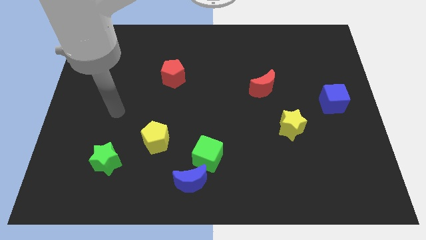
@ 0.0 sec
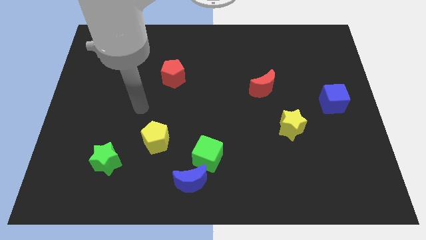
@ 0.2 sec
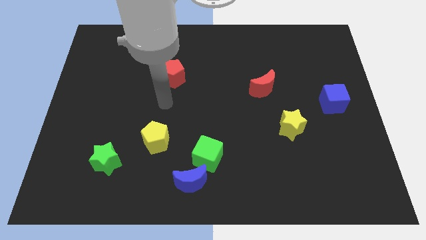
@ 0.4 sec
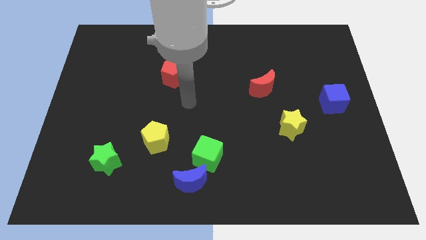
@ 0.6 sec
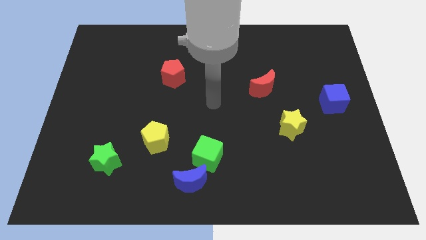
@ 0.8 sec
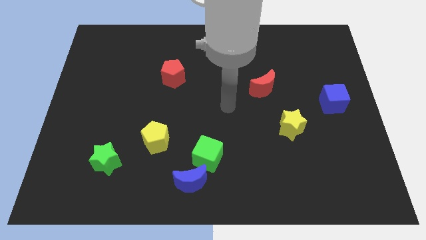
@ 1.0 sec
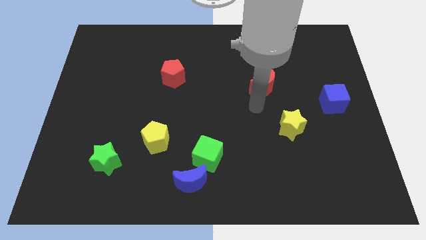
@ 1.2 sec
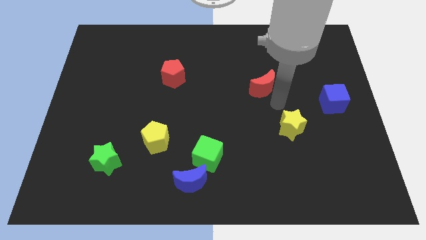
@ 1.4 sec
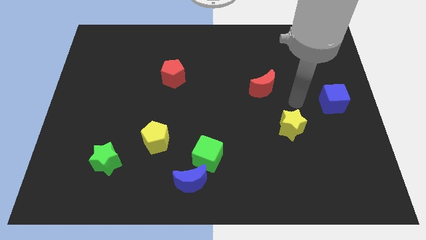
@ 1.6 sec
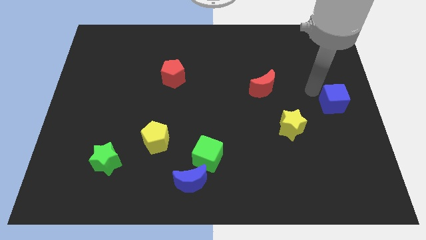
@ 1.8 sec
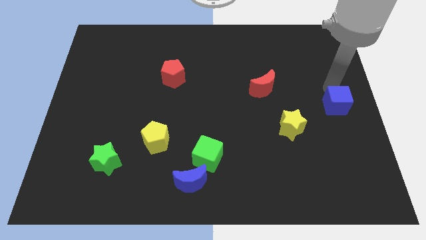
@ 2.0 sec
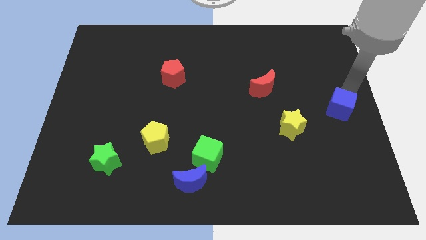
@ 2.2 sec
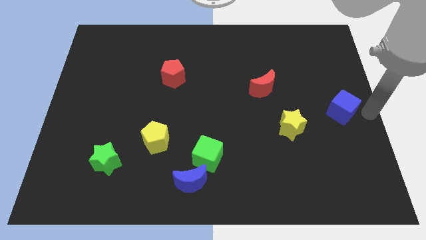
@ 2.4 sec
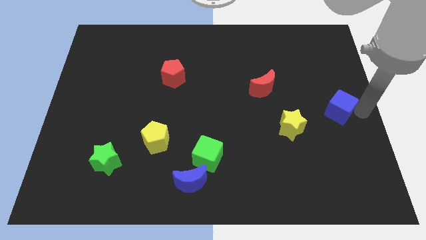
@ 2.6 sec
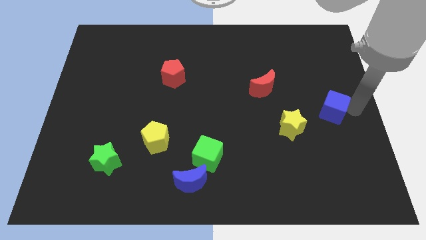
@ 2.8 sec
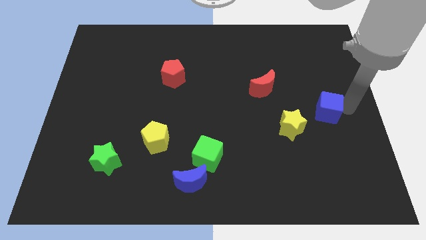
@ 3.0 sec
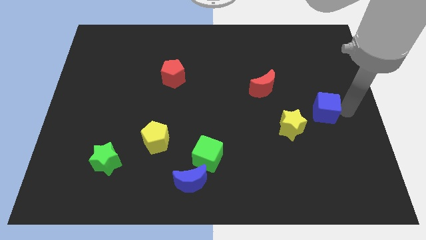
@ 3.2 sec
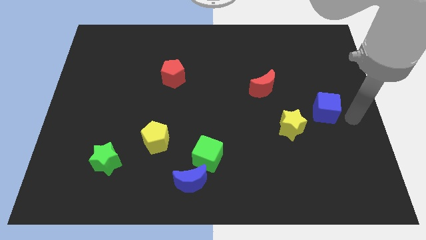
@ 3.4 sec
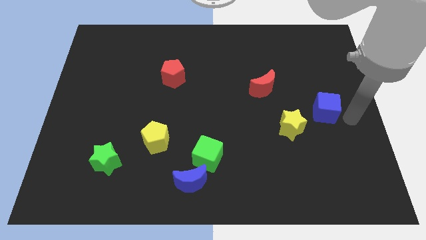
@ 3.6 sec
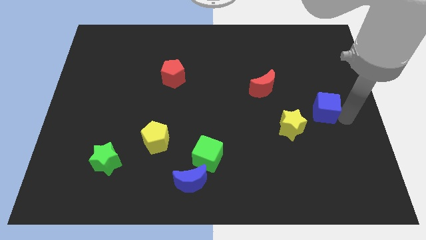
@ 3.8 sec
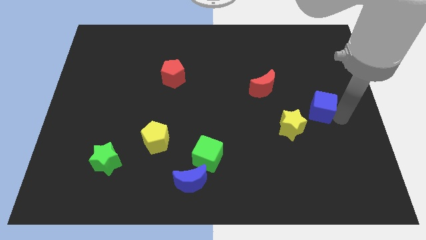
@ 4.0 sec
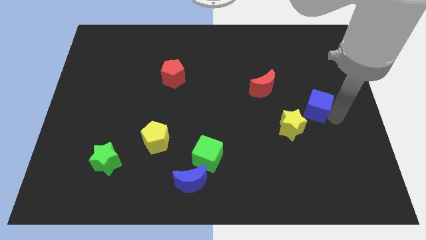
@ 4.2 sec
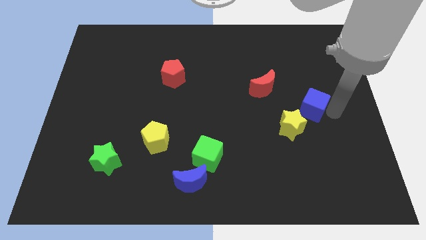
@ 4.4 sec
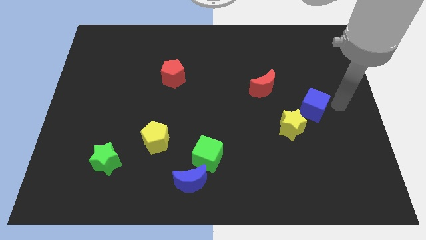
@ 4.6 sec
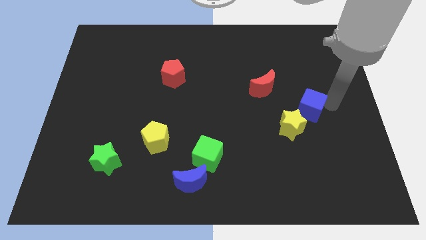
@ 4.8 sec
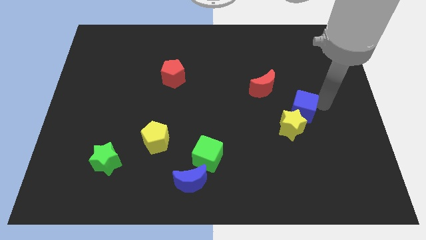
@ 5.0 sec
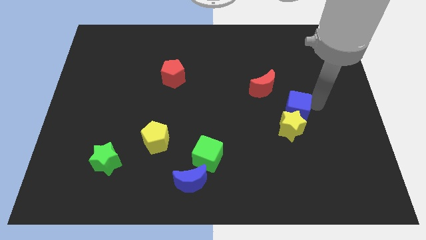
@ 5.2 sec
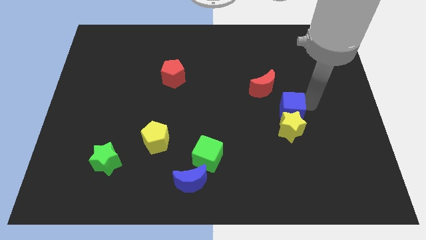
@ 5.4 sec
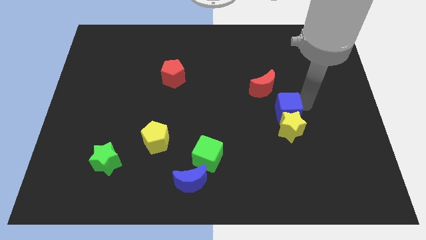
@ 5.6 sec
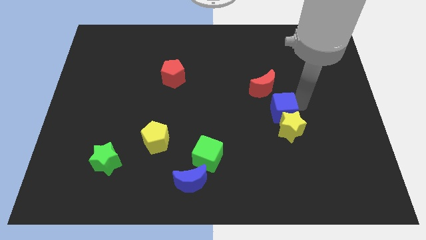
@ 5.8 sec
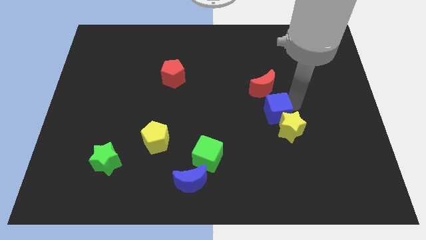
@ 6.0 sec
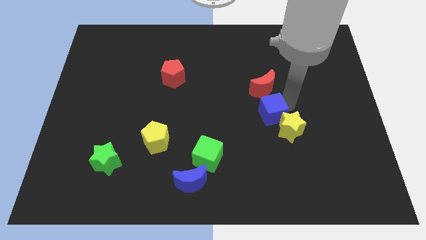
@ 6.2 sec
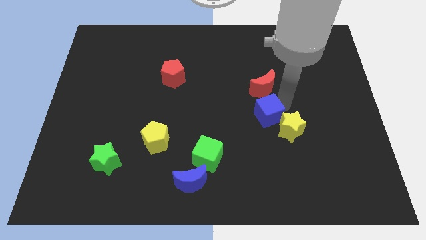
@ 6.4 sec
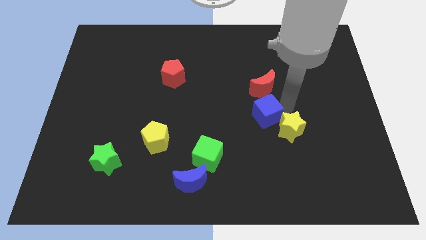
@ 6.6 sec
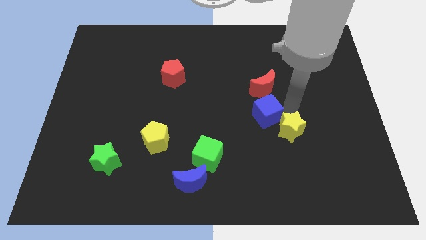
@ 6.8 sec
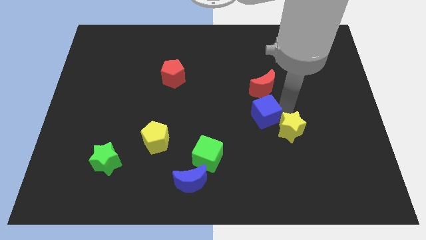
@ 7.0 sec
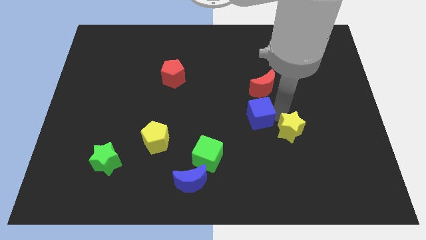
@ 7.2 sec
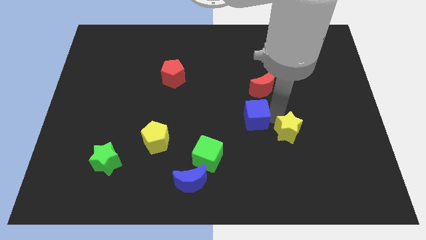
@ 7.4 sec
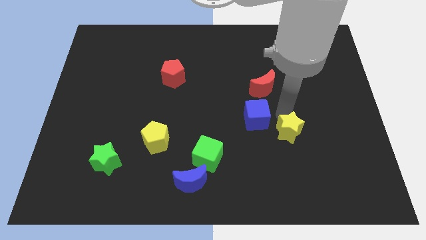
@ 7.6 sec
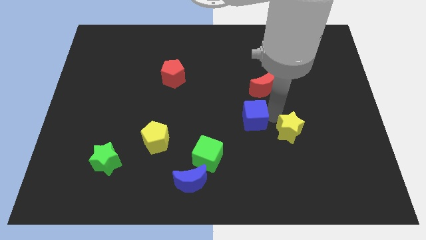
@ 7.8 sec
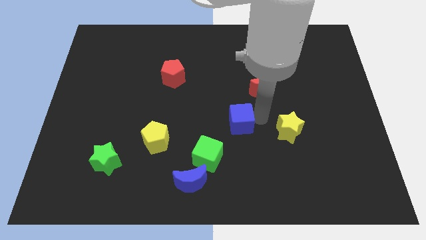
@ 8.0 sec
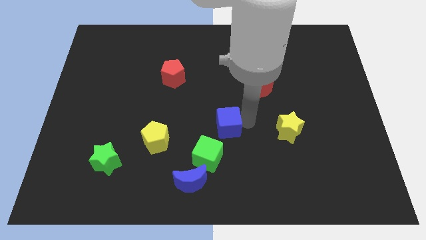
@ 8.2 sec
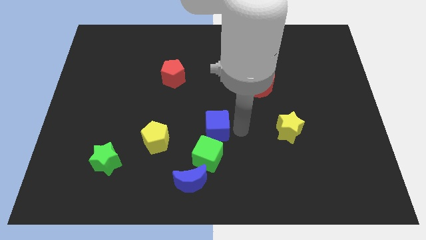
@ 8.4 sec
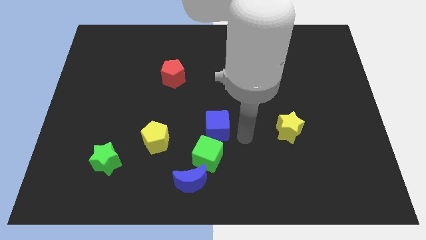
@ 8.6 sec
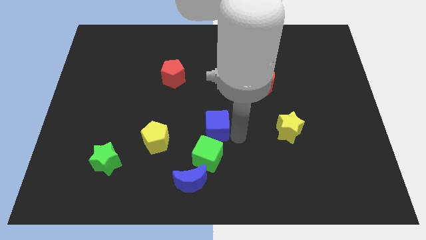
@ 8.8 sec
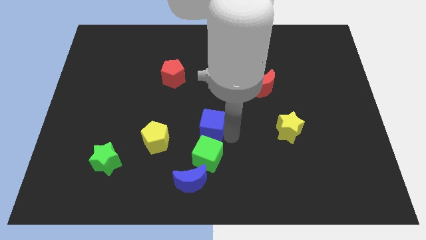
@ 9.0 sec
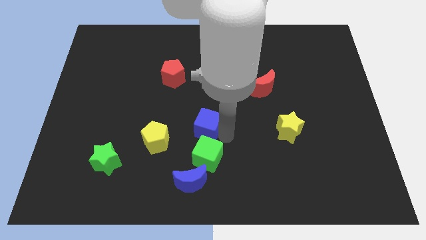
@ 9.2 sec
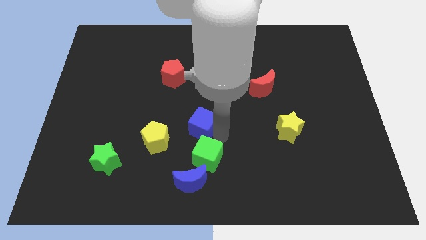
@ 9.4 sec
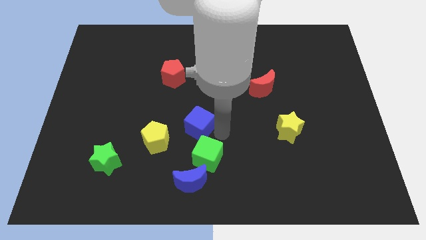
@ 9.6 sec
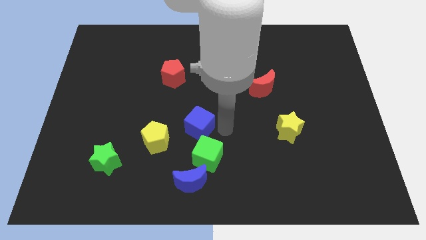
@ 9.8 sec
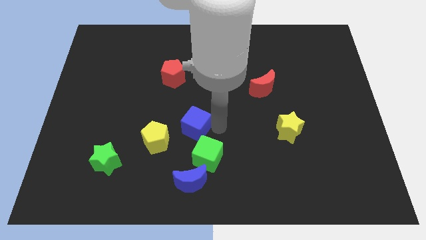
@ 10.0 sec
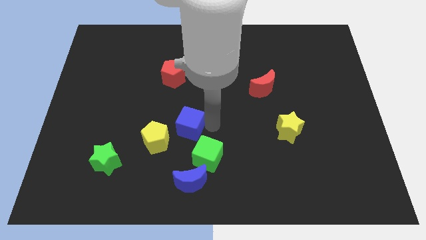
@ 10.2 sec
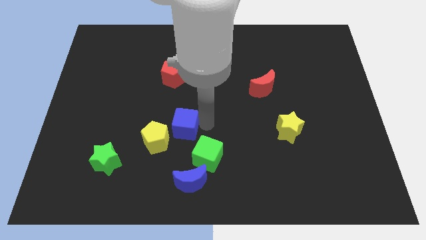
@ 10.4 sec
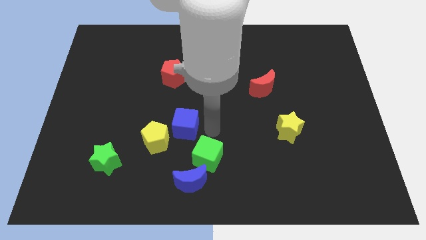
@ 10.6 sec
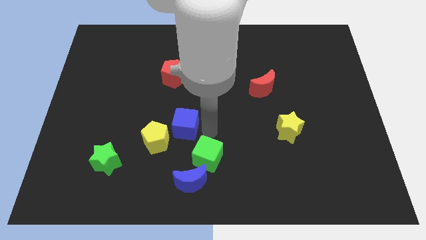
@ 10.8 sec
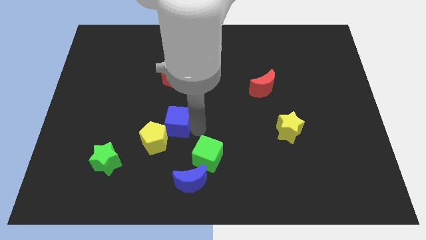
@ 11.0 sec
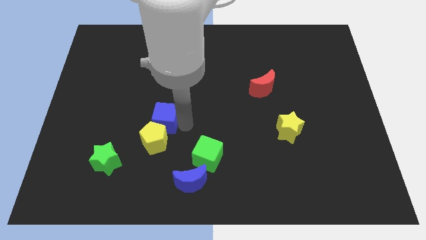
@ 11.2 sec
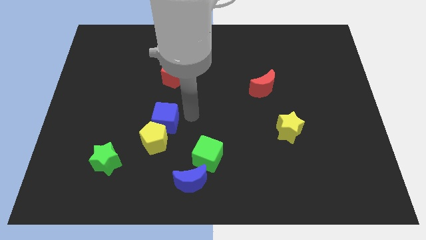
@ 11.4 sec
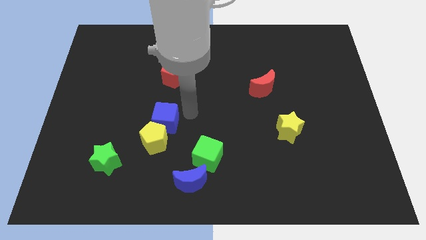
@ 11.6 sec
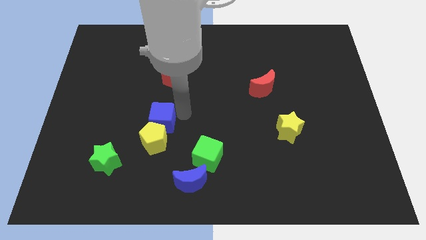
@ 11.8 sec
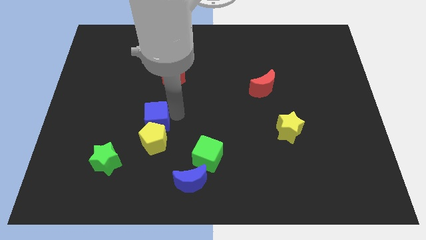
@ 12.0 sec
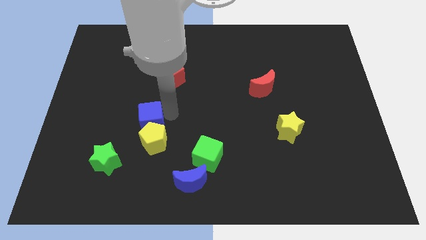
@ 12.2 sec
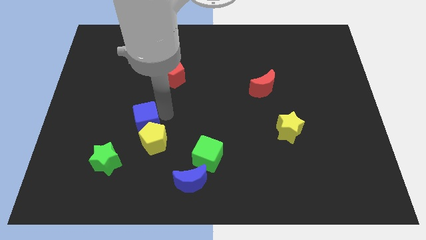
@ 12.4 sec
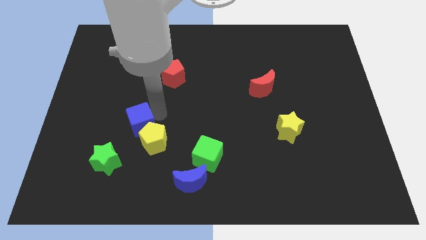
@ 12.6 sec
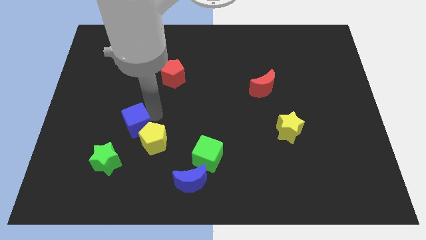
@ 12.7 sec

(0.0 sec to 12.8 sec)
push the blue cube just left of the yellow pentagon
